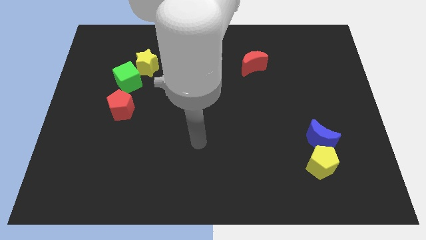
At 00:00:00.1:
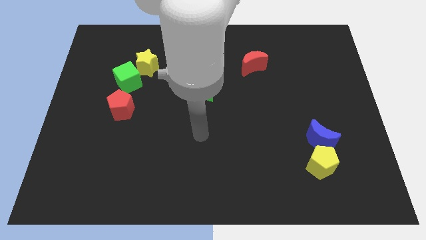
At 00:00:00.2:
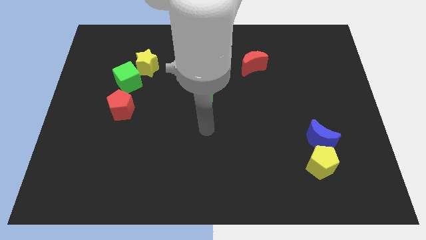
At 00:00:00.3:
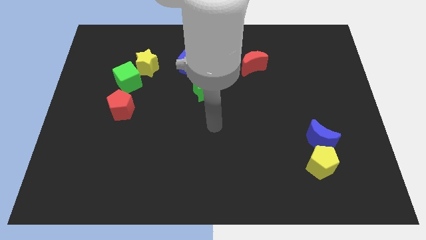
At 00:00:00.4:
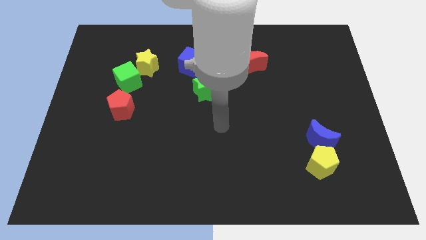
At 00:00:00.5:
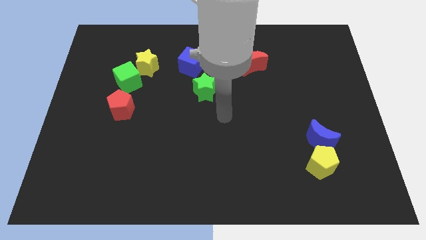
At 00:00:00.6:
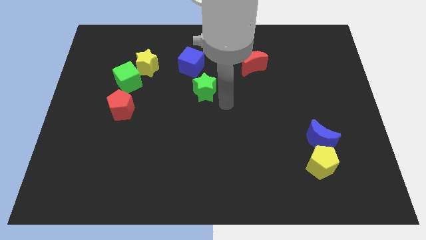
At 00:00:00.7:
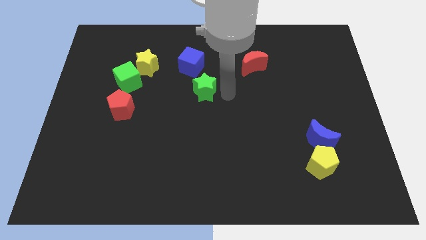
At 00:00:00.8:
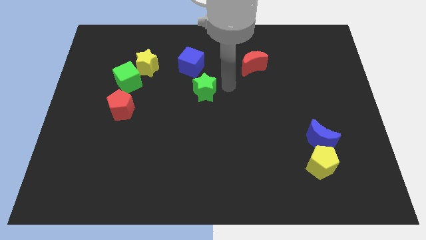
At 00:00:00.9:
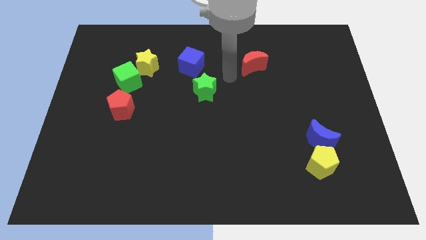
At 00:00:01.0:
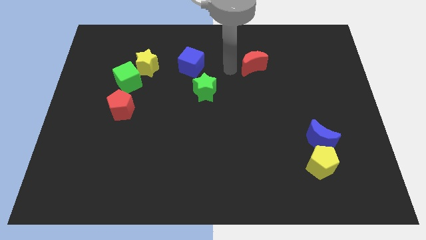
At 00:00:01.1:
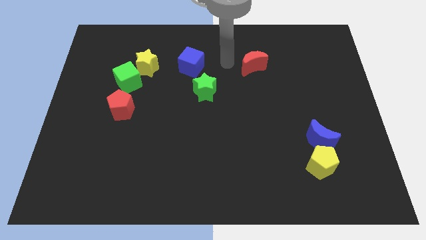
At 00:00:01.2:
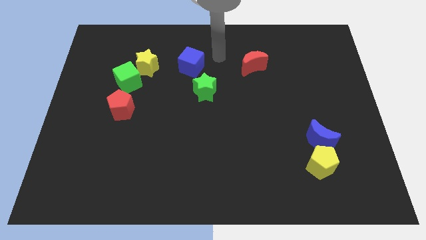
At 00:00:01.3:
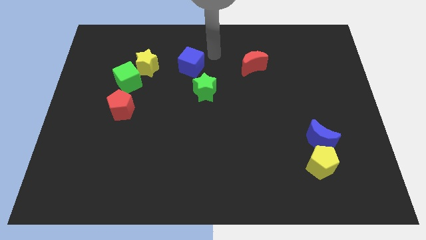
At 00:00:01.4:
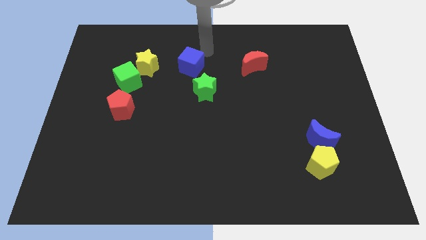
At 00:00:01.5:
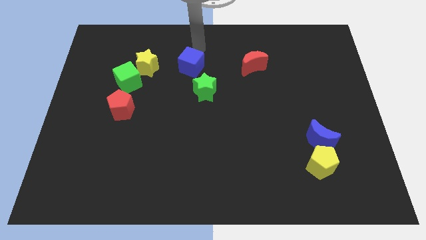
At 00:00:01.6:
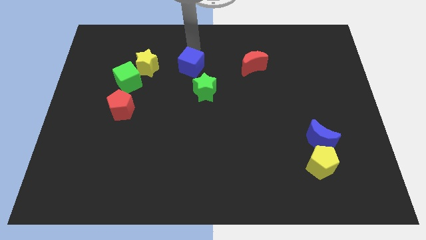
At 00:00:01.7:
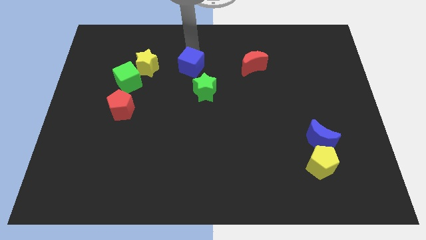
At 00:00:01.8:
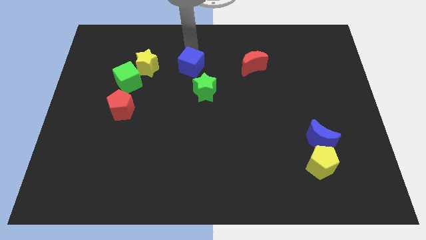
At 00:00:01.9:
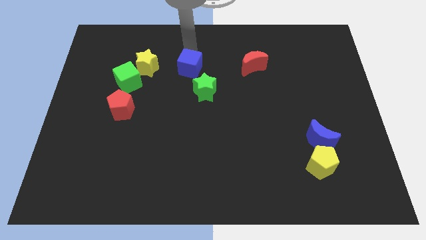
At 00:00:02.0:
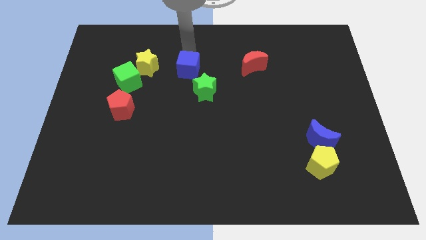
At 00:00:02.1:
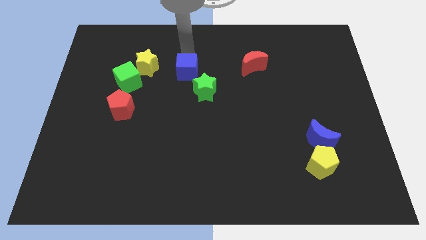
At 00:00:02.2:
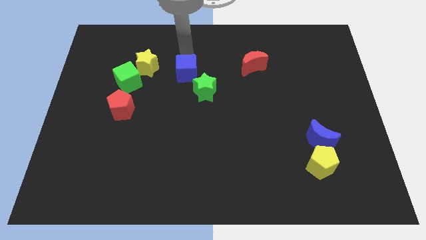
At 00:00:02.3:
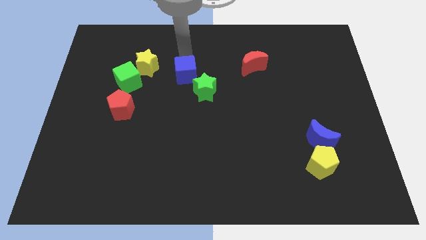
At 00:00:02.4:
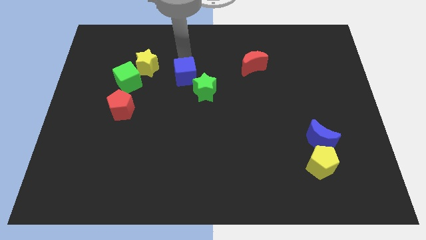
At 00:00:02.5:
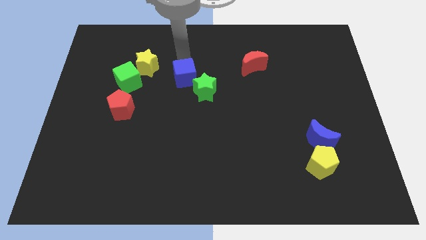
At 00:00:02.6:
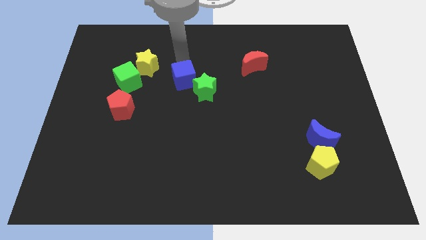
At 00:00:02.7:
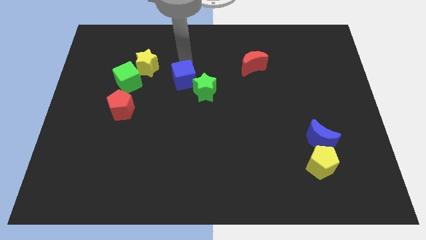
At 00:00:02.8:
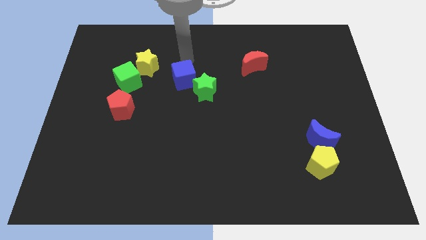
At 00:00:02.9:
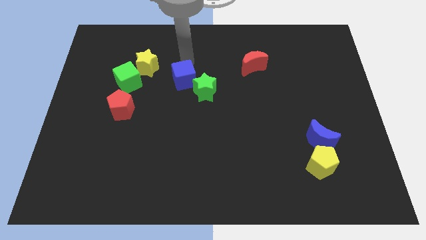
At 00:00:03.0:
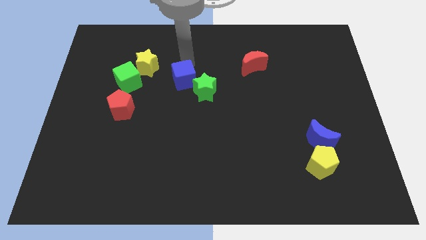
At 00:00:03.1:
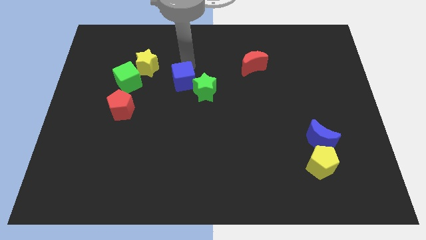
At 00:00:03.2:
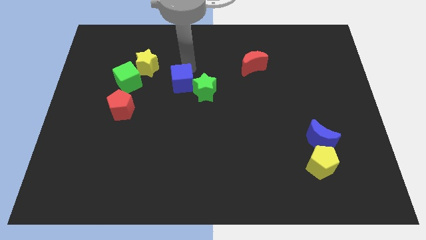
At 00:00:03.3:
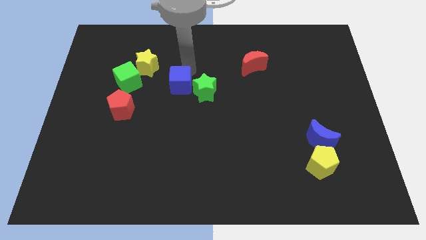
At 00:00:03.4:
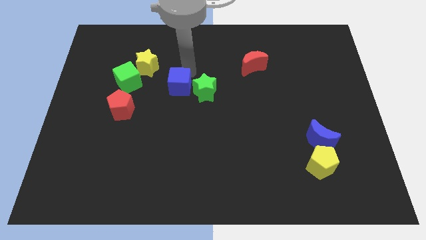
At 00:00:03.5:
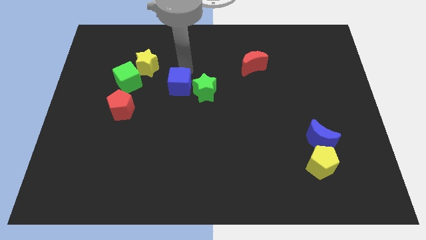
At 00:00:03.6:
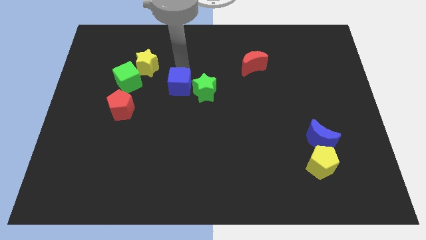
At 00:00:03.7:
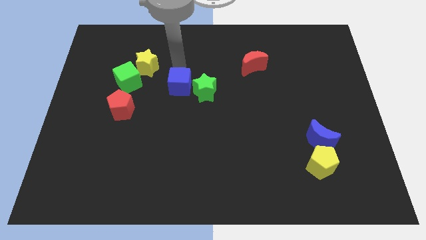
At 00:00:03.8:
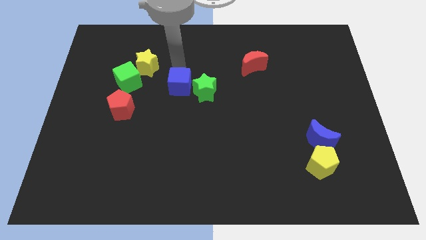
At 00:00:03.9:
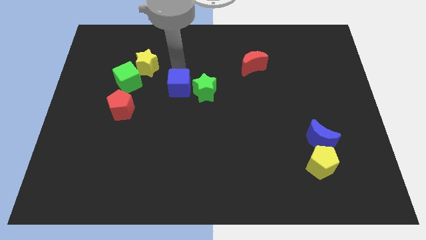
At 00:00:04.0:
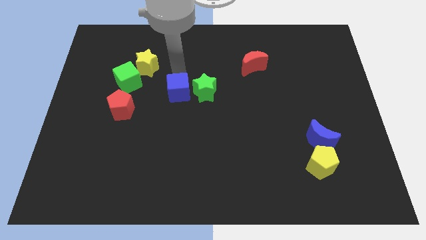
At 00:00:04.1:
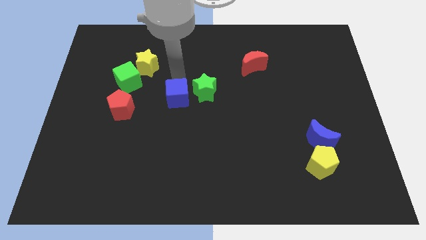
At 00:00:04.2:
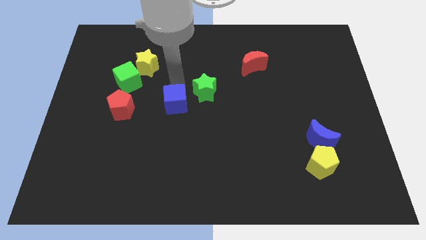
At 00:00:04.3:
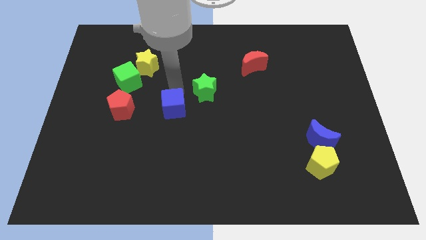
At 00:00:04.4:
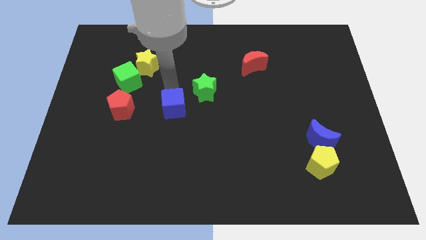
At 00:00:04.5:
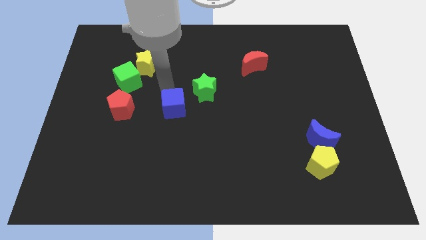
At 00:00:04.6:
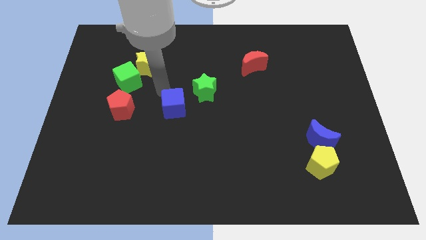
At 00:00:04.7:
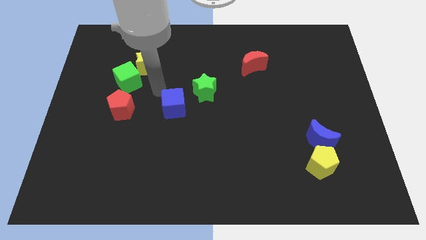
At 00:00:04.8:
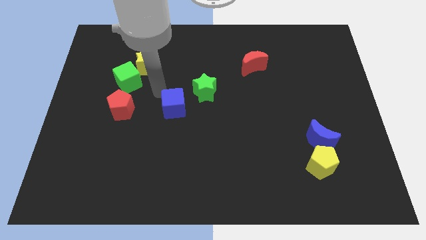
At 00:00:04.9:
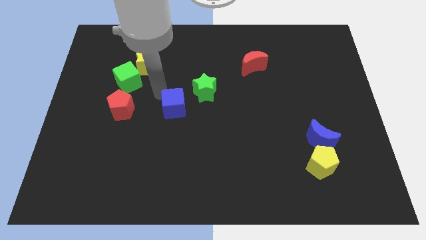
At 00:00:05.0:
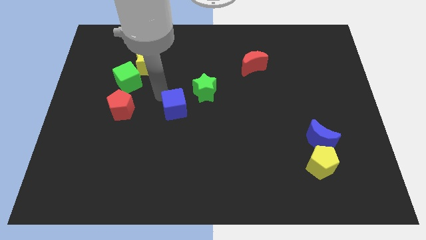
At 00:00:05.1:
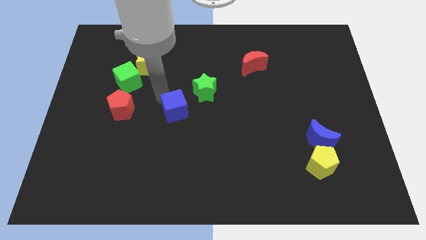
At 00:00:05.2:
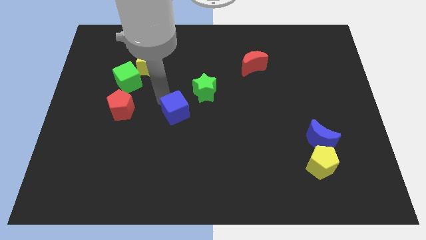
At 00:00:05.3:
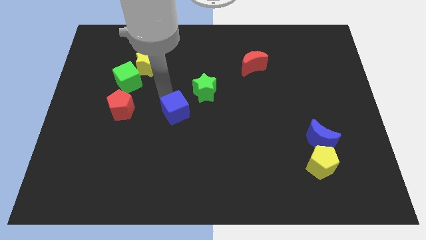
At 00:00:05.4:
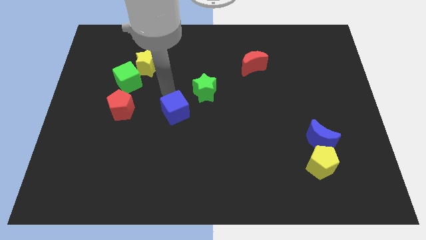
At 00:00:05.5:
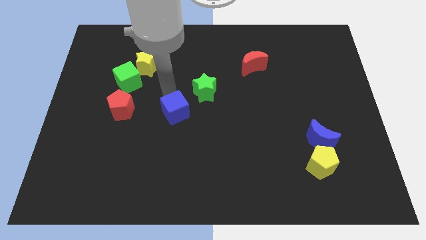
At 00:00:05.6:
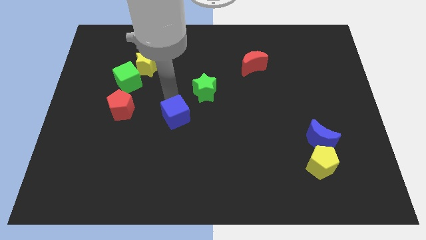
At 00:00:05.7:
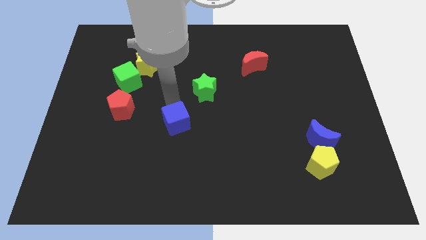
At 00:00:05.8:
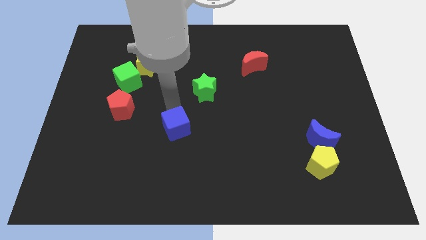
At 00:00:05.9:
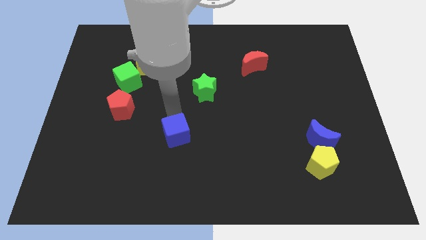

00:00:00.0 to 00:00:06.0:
slide the blue cube downwards

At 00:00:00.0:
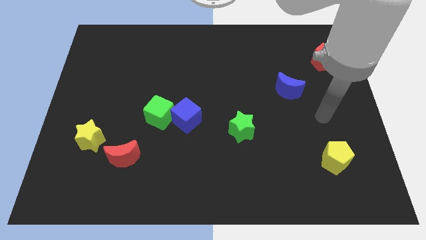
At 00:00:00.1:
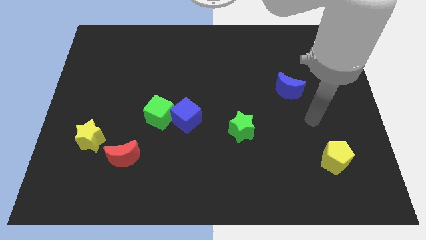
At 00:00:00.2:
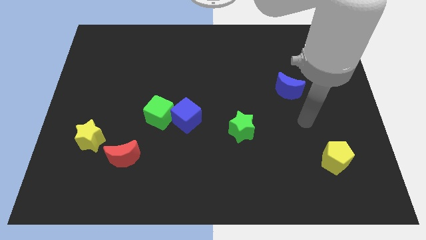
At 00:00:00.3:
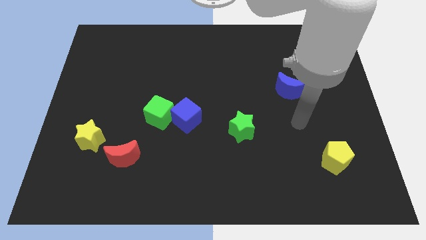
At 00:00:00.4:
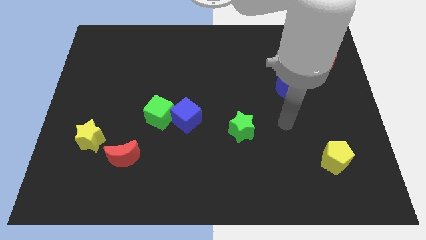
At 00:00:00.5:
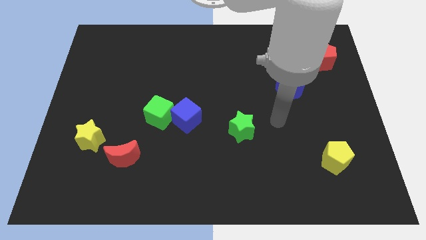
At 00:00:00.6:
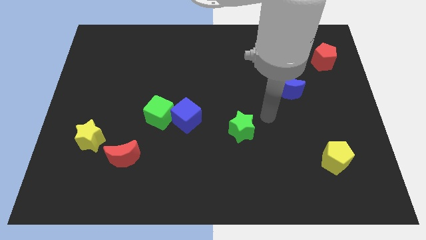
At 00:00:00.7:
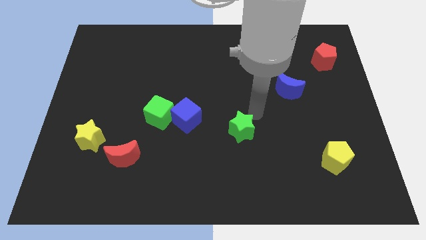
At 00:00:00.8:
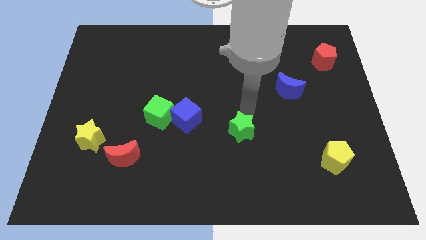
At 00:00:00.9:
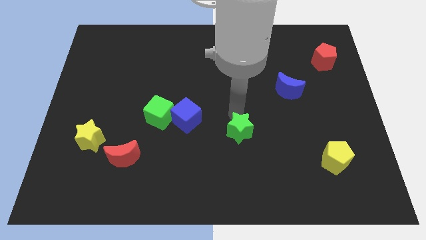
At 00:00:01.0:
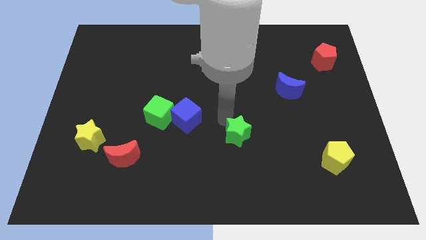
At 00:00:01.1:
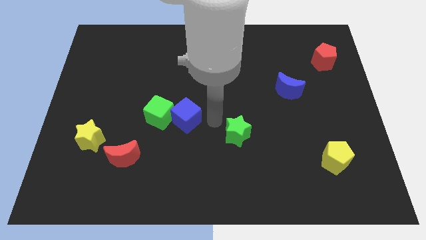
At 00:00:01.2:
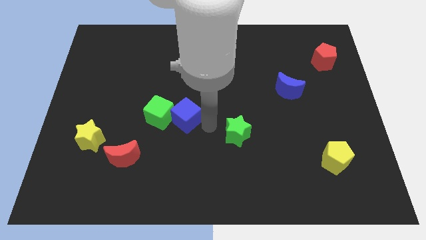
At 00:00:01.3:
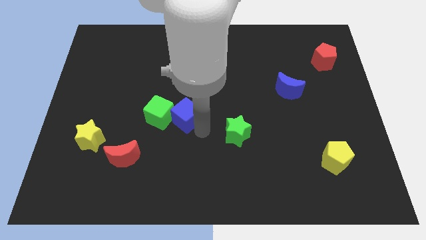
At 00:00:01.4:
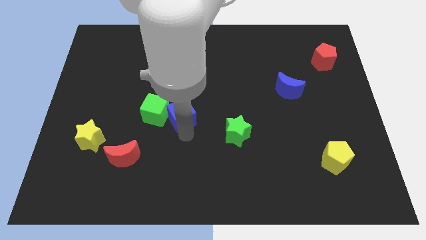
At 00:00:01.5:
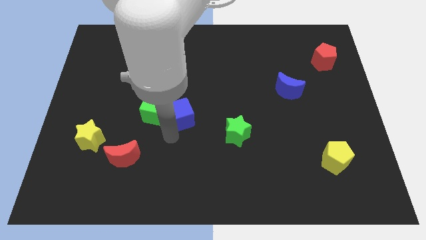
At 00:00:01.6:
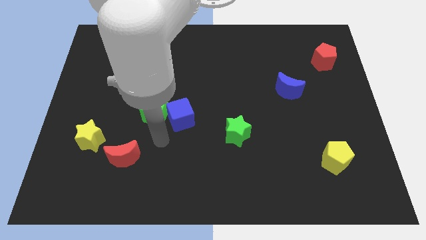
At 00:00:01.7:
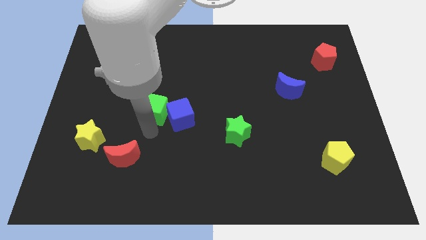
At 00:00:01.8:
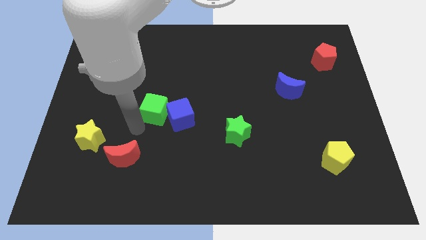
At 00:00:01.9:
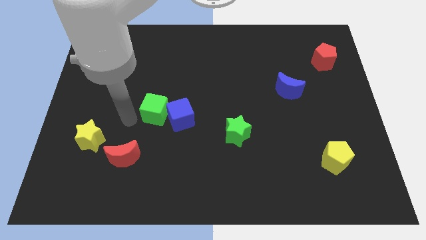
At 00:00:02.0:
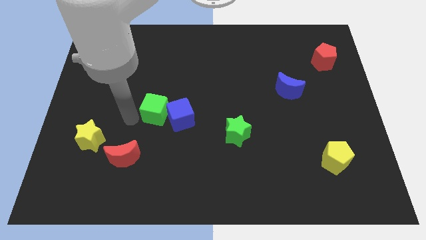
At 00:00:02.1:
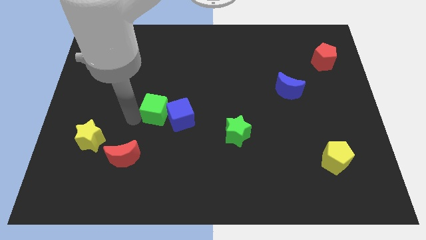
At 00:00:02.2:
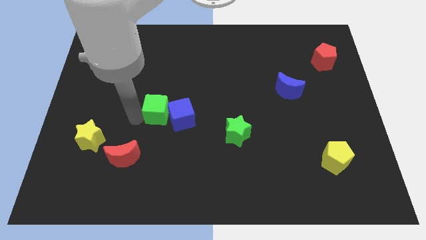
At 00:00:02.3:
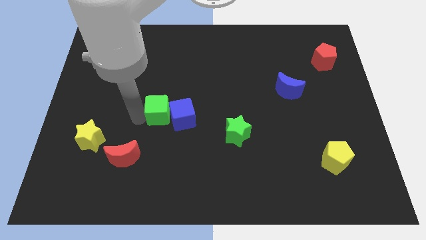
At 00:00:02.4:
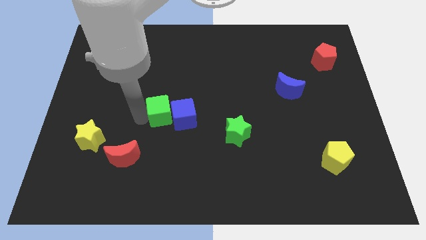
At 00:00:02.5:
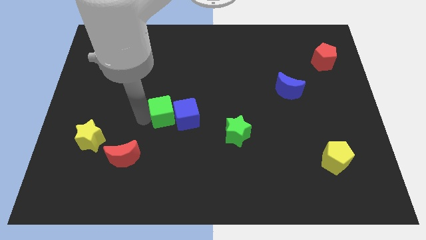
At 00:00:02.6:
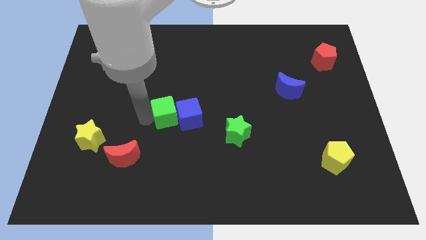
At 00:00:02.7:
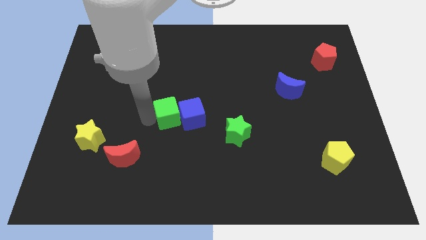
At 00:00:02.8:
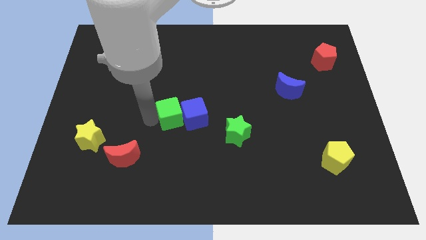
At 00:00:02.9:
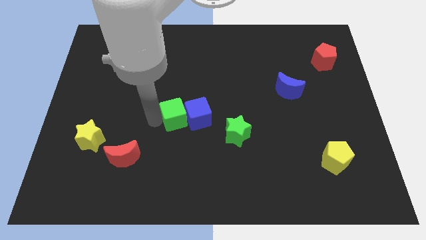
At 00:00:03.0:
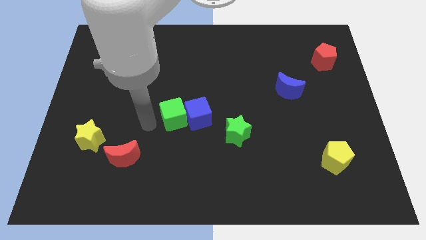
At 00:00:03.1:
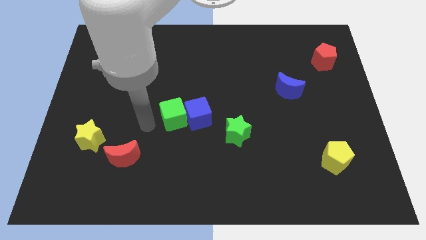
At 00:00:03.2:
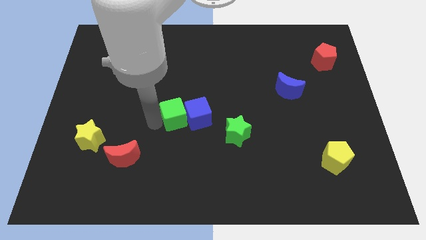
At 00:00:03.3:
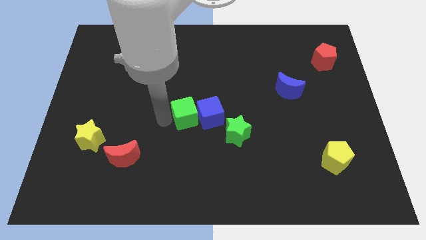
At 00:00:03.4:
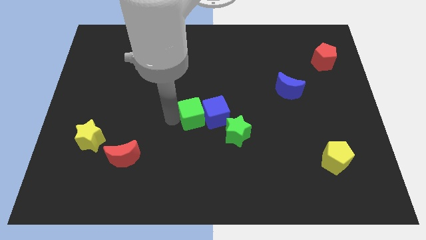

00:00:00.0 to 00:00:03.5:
slightly move the green cube to the right
